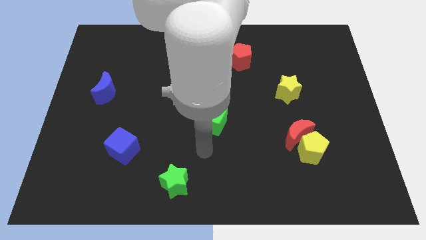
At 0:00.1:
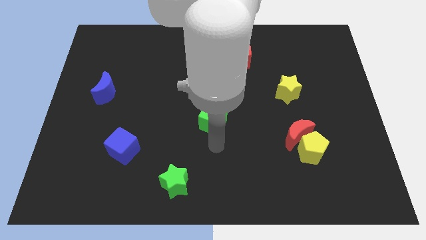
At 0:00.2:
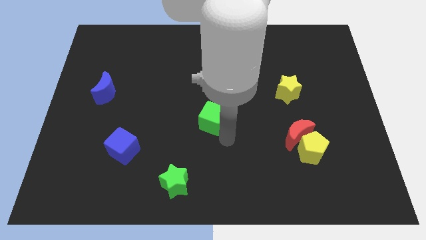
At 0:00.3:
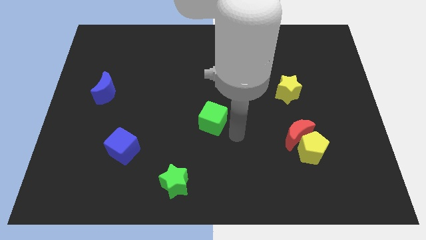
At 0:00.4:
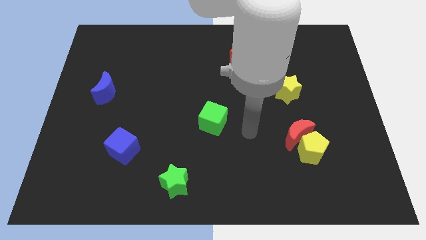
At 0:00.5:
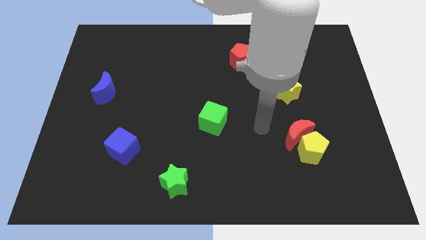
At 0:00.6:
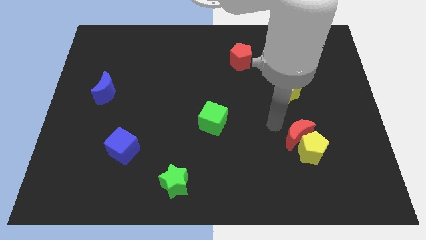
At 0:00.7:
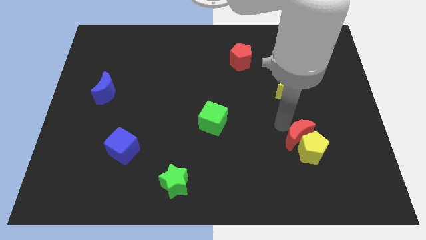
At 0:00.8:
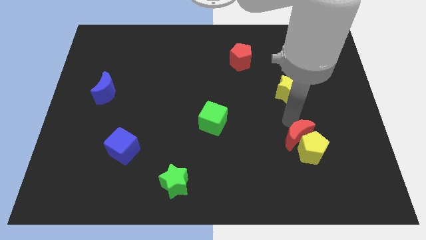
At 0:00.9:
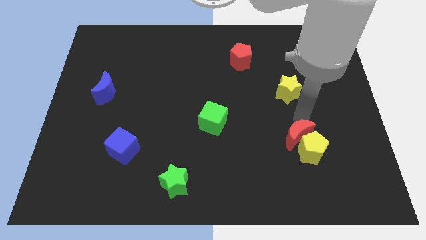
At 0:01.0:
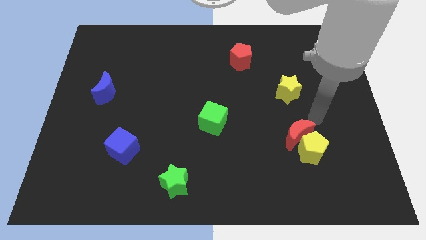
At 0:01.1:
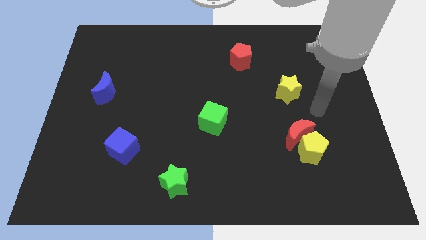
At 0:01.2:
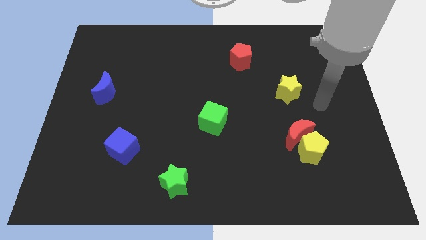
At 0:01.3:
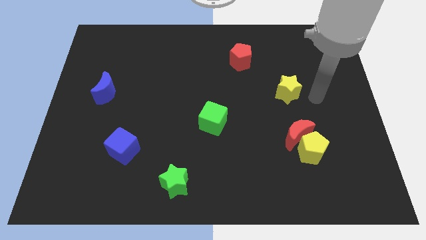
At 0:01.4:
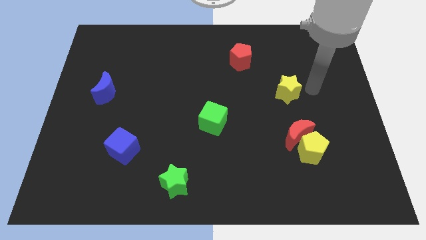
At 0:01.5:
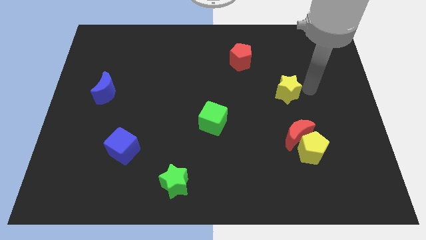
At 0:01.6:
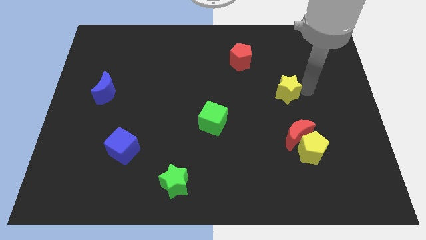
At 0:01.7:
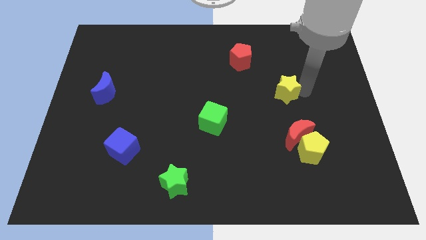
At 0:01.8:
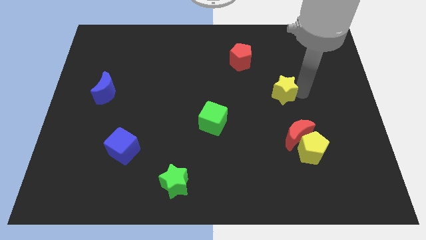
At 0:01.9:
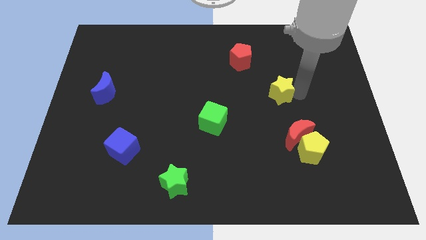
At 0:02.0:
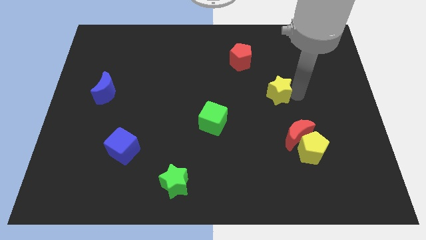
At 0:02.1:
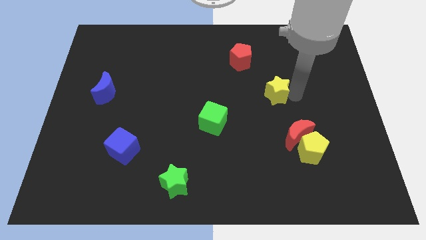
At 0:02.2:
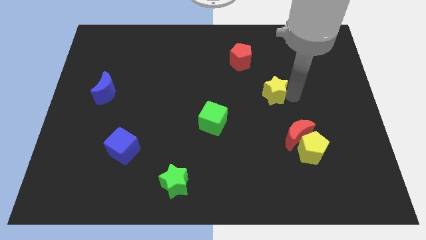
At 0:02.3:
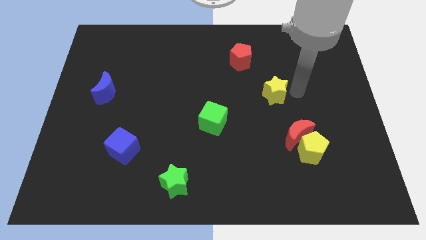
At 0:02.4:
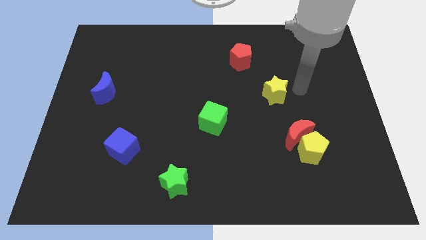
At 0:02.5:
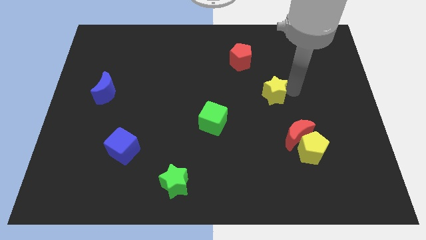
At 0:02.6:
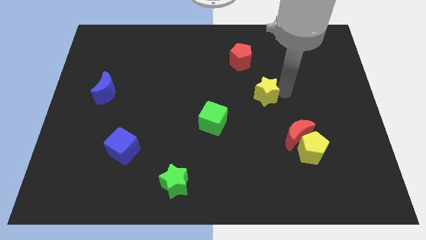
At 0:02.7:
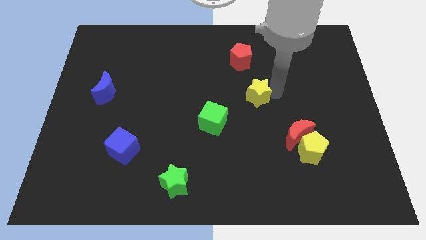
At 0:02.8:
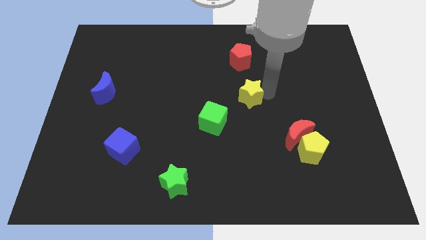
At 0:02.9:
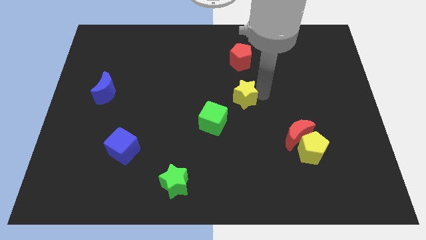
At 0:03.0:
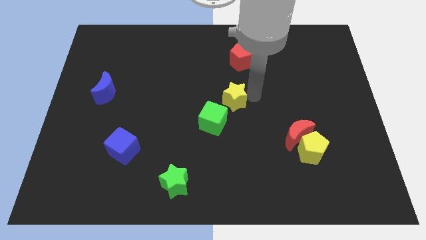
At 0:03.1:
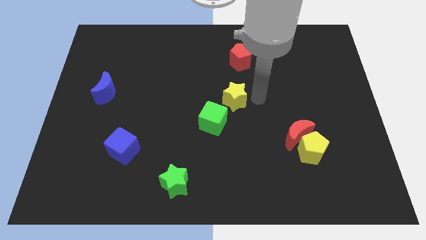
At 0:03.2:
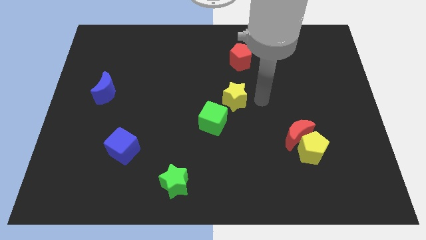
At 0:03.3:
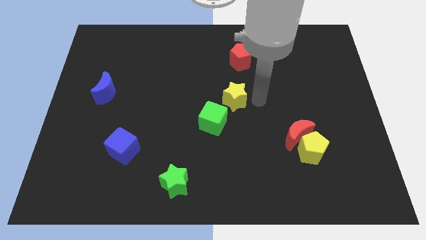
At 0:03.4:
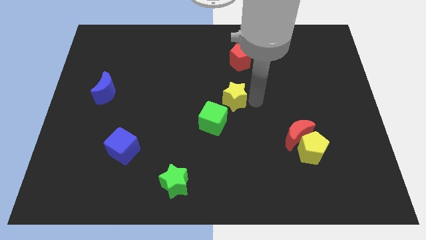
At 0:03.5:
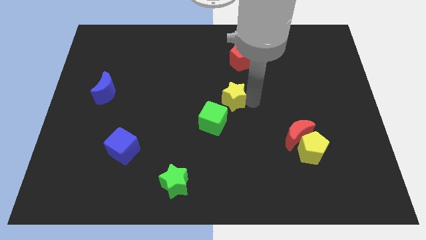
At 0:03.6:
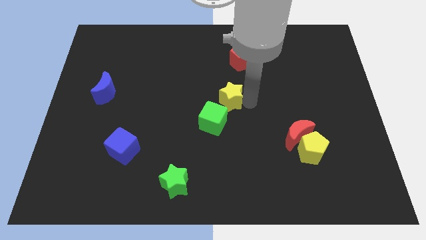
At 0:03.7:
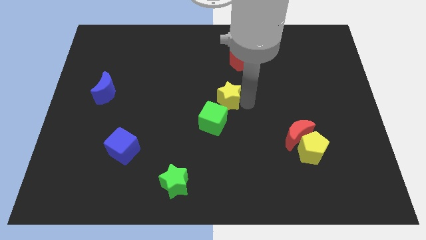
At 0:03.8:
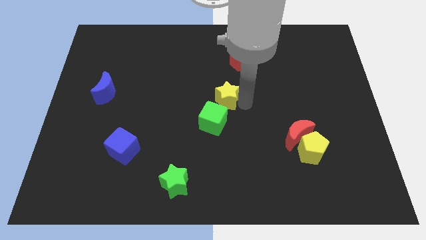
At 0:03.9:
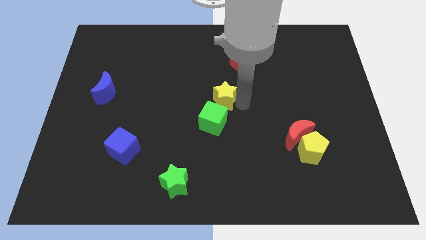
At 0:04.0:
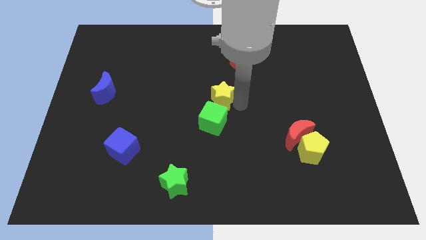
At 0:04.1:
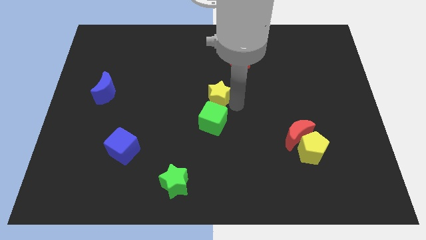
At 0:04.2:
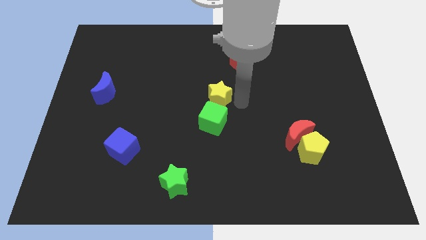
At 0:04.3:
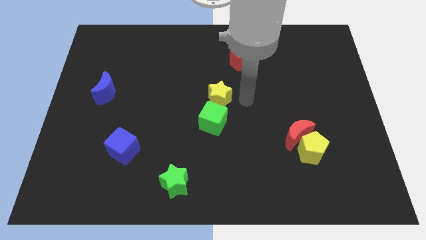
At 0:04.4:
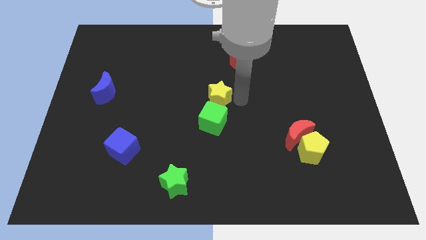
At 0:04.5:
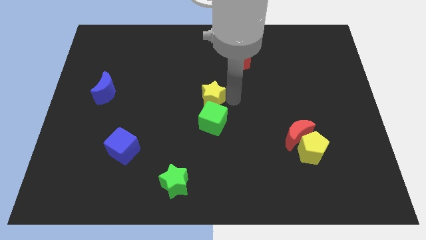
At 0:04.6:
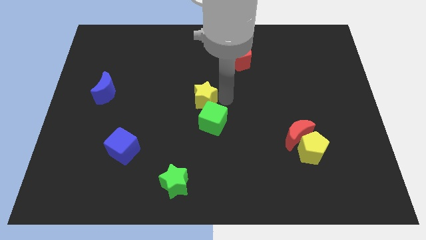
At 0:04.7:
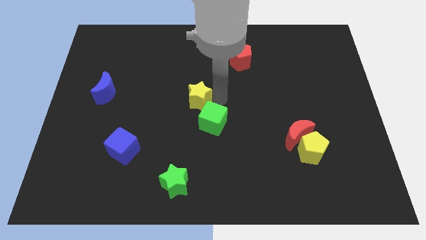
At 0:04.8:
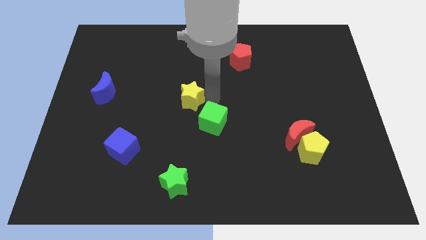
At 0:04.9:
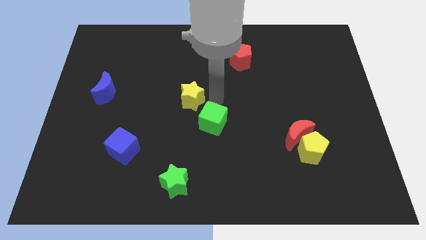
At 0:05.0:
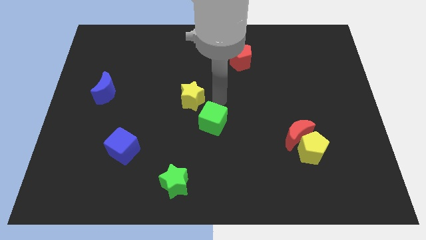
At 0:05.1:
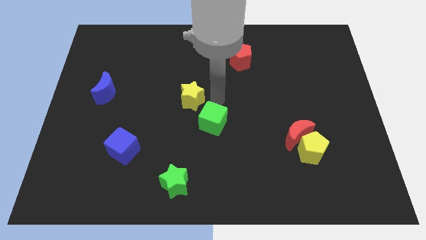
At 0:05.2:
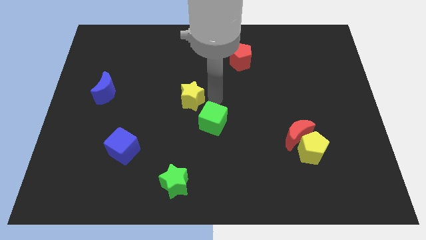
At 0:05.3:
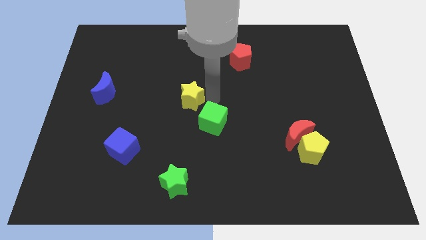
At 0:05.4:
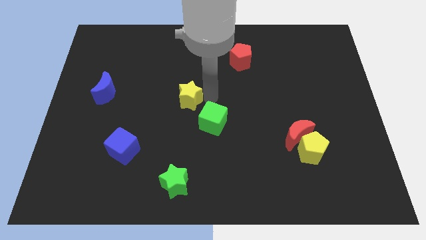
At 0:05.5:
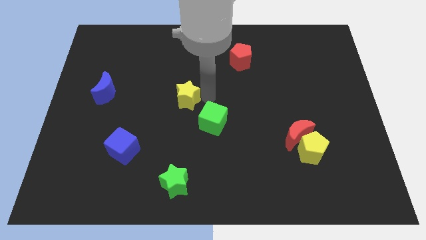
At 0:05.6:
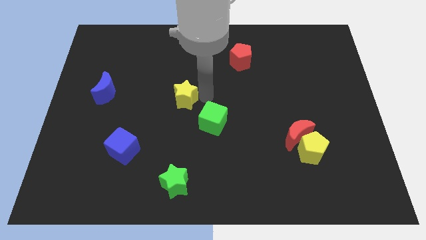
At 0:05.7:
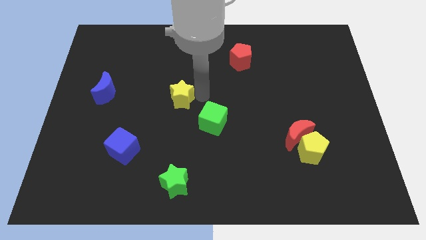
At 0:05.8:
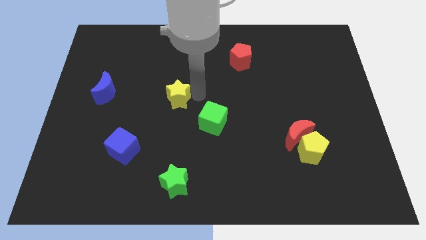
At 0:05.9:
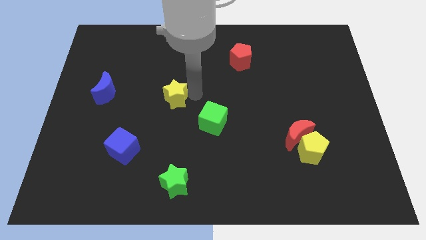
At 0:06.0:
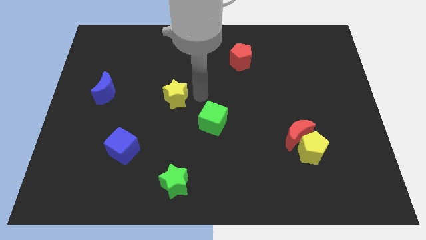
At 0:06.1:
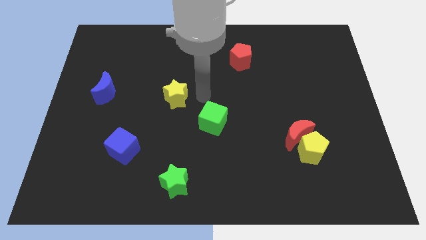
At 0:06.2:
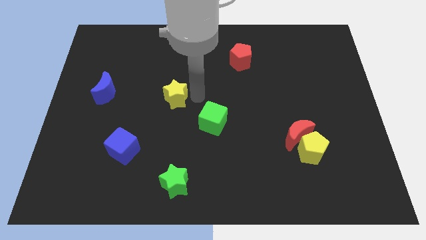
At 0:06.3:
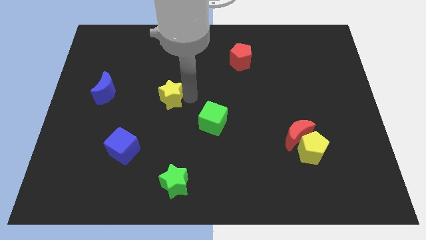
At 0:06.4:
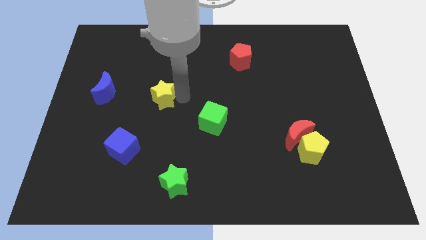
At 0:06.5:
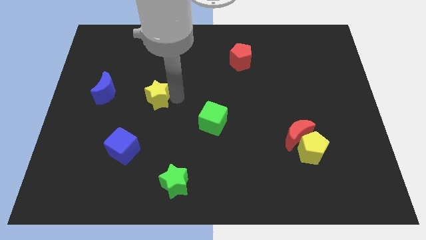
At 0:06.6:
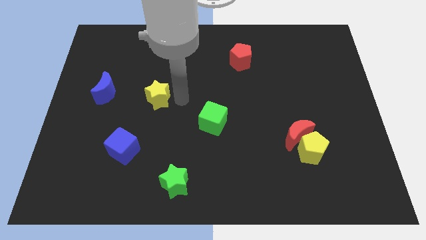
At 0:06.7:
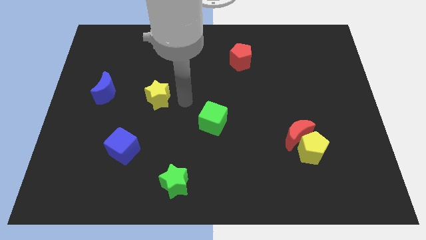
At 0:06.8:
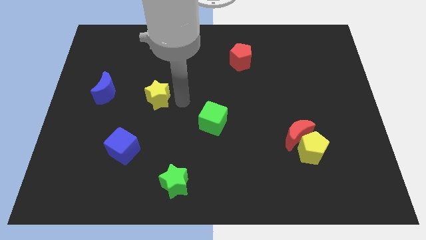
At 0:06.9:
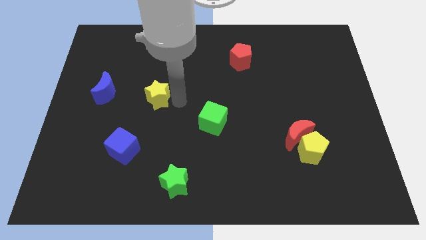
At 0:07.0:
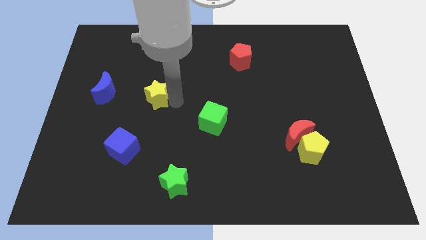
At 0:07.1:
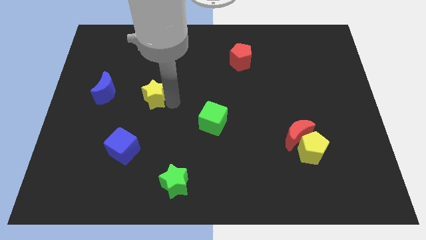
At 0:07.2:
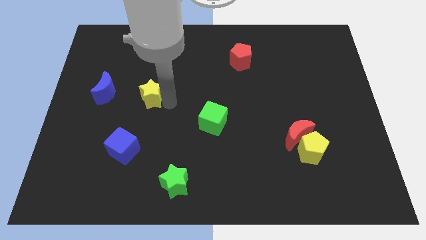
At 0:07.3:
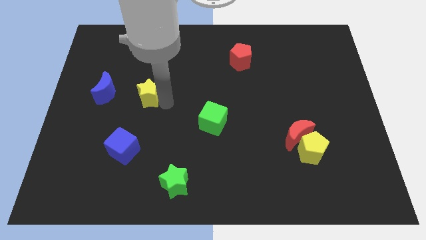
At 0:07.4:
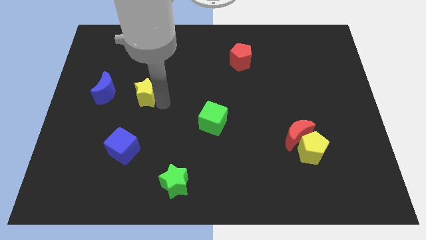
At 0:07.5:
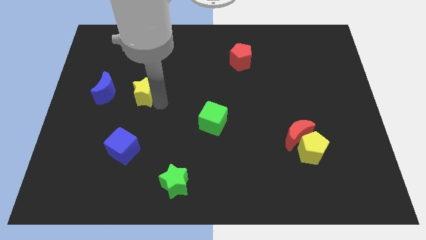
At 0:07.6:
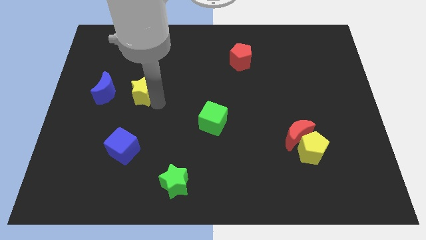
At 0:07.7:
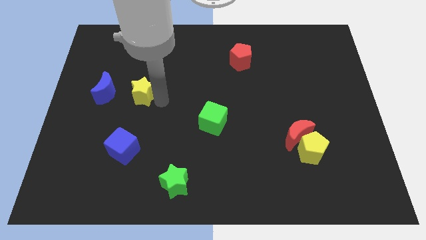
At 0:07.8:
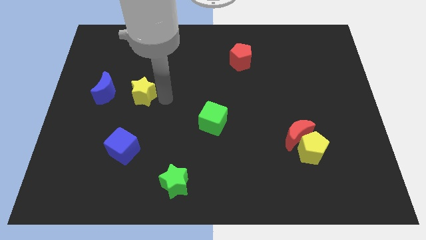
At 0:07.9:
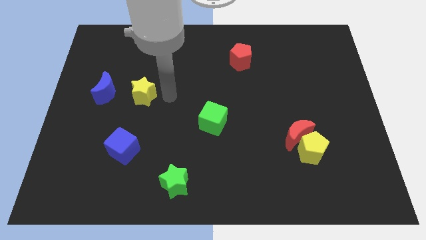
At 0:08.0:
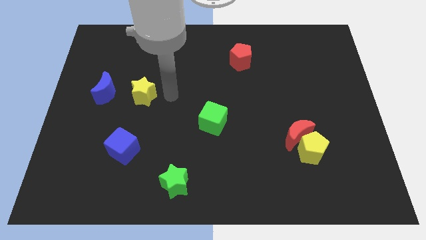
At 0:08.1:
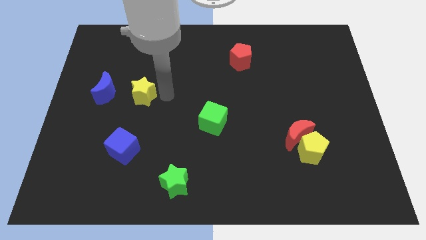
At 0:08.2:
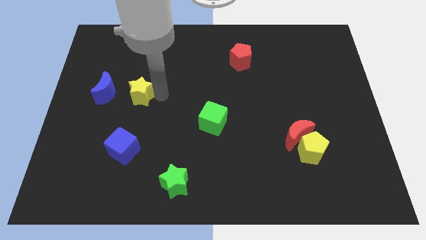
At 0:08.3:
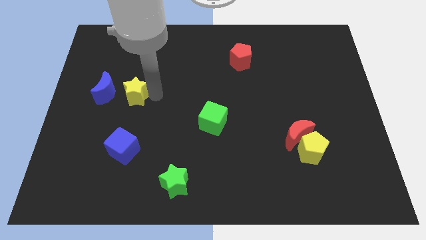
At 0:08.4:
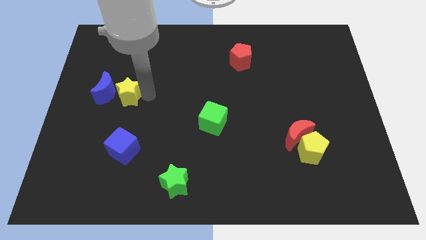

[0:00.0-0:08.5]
push the yellow star close to the blue moon
